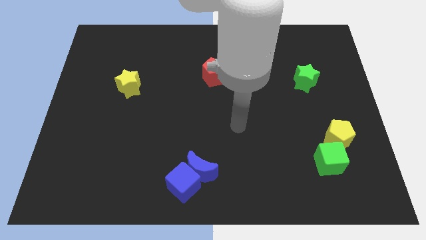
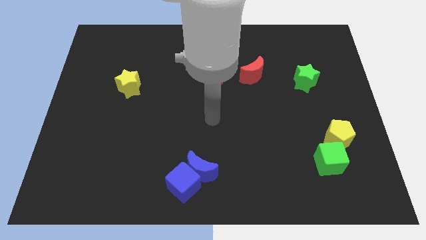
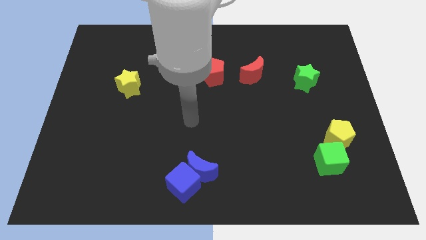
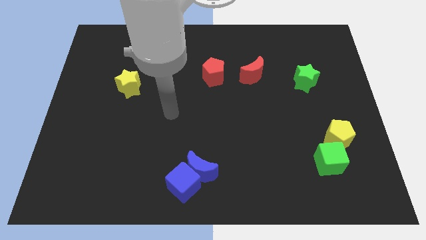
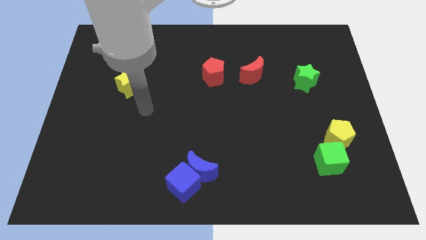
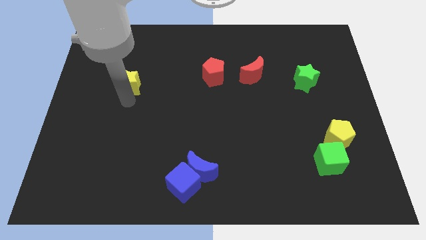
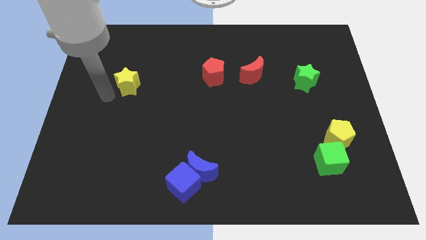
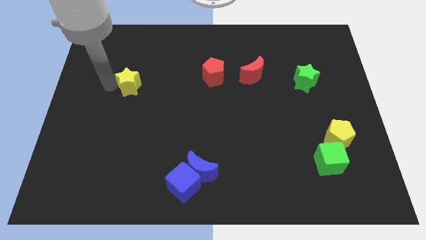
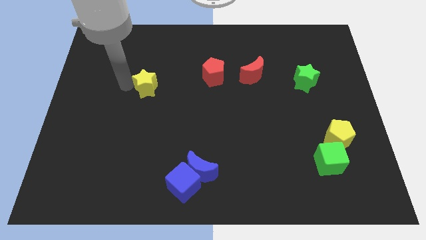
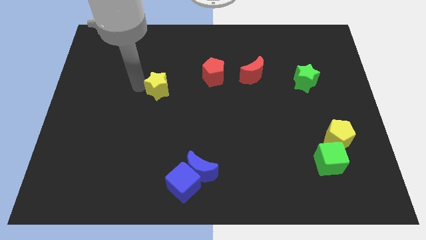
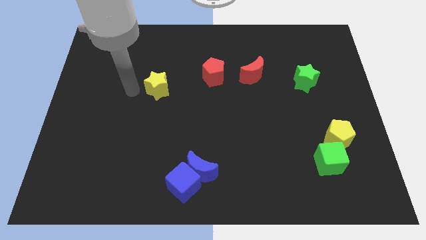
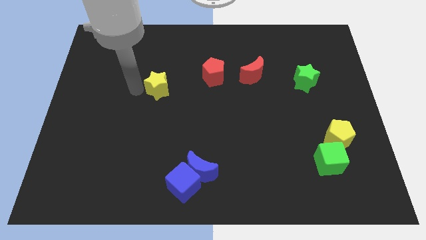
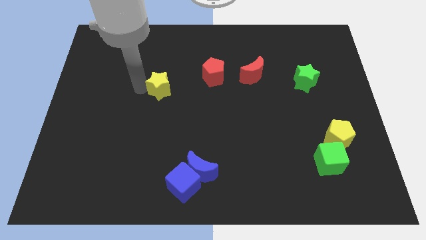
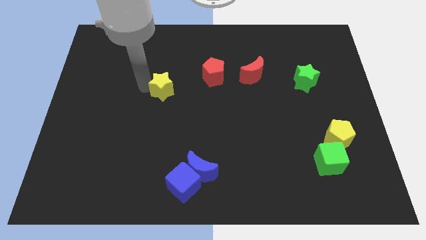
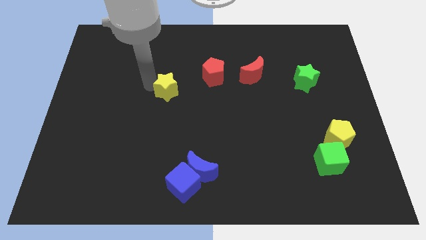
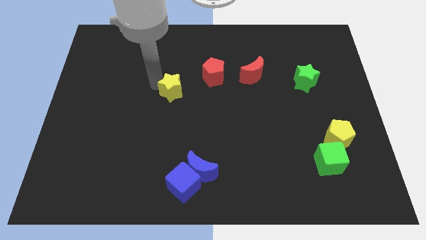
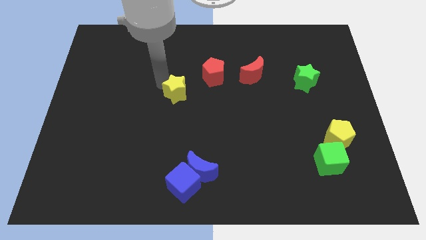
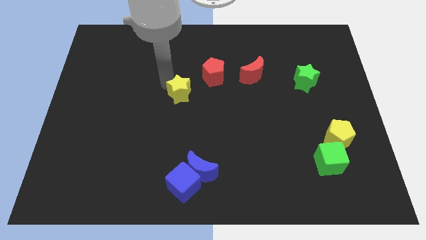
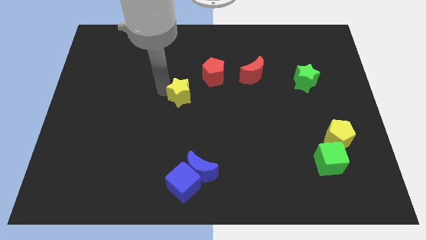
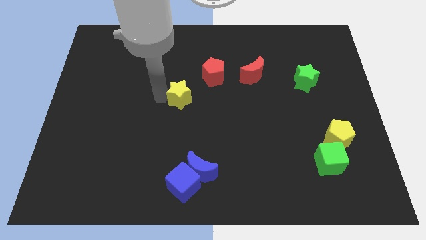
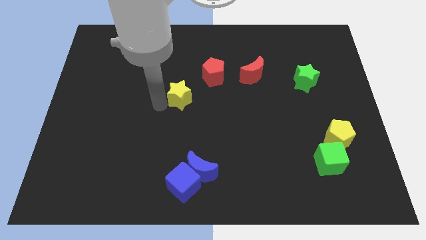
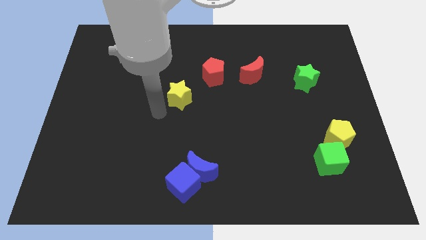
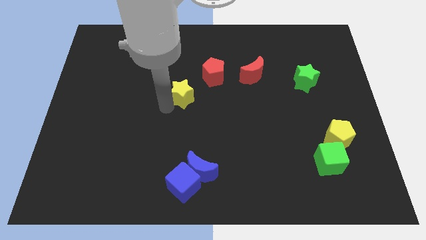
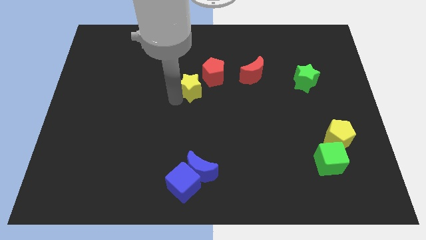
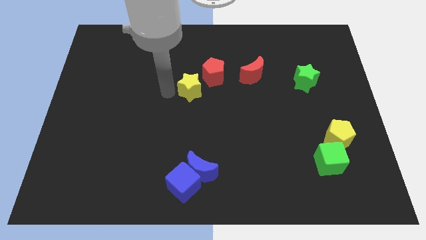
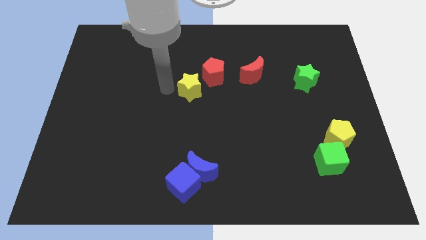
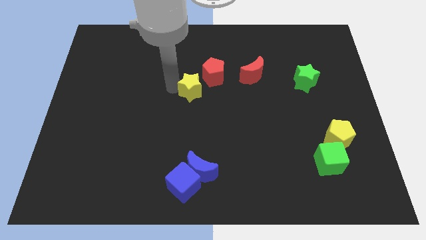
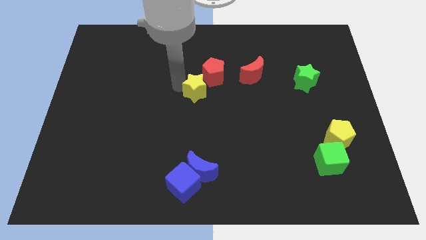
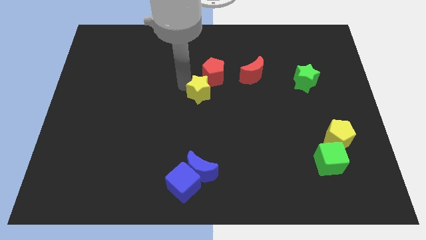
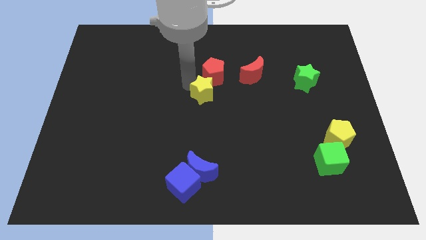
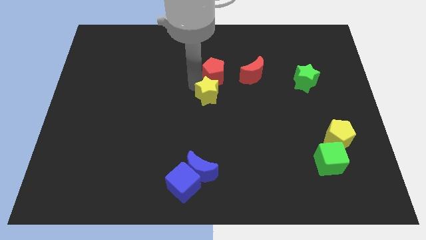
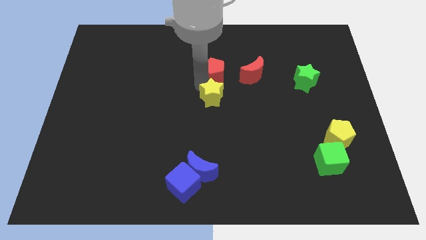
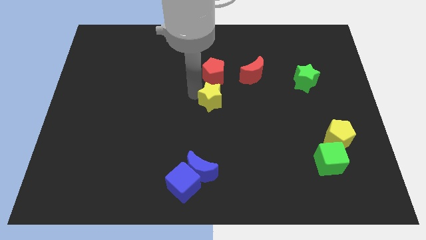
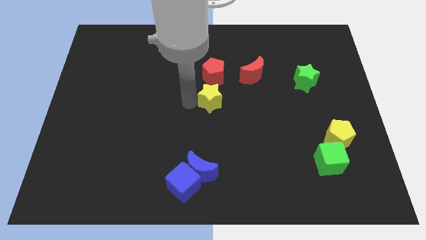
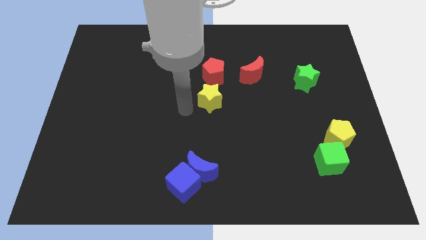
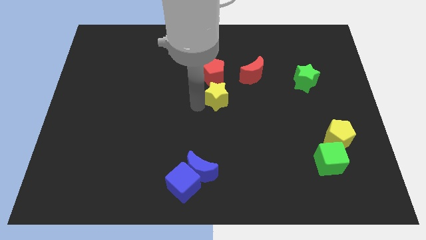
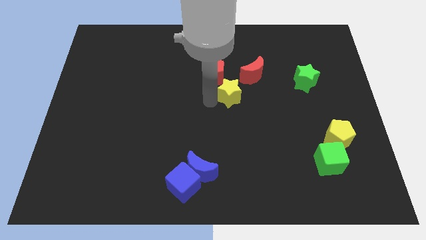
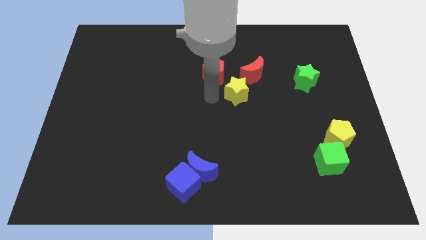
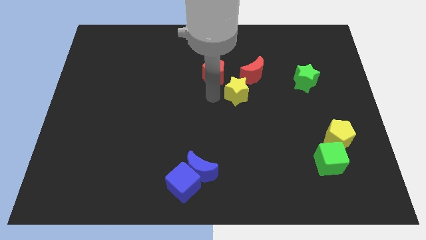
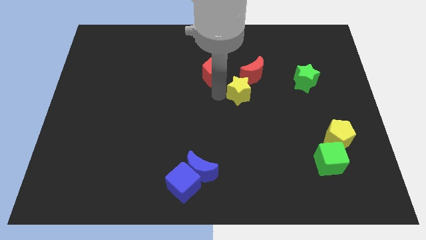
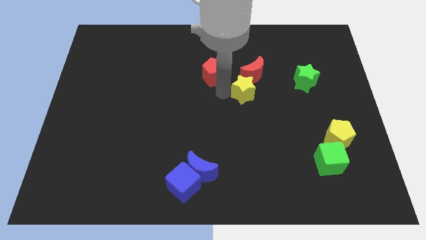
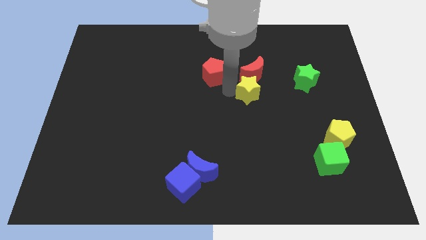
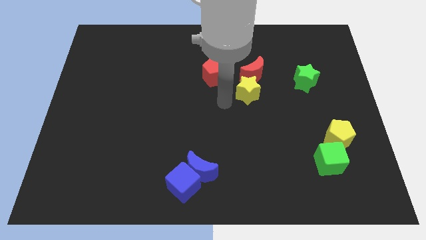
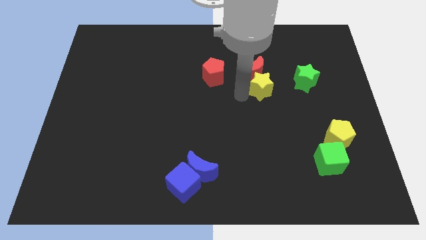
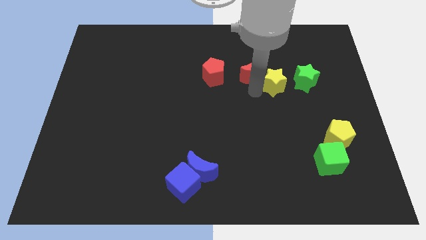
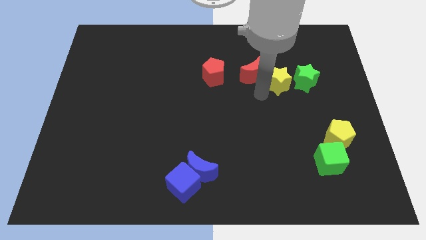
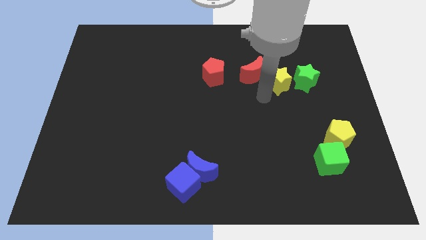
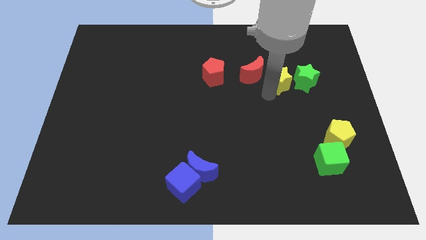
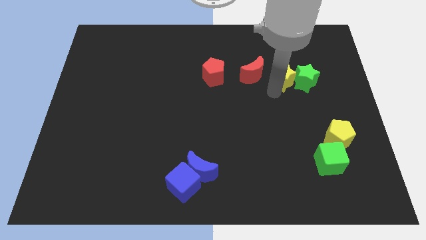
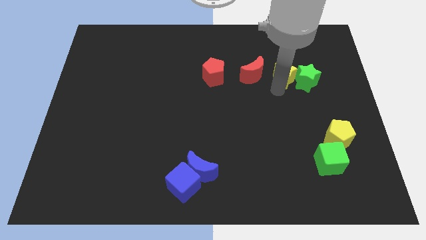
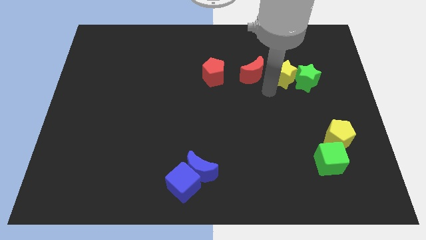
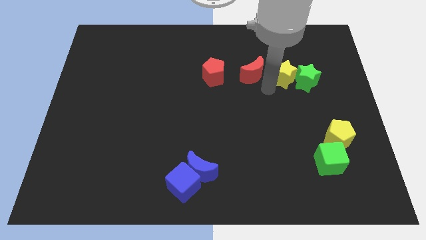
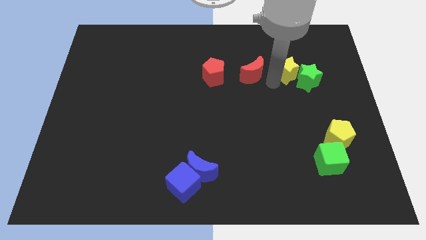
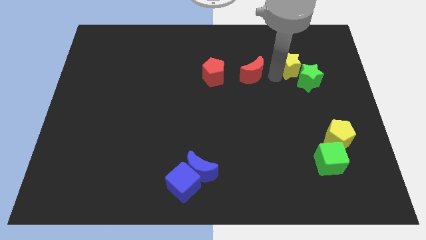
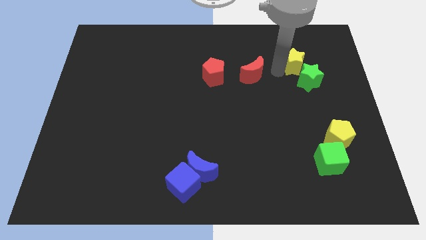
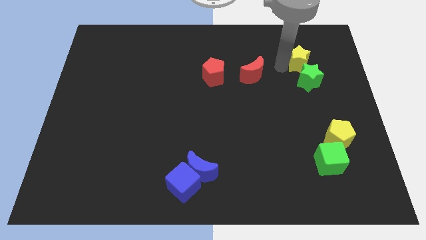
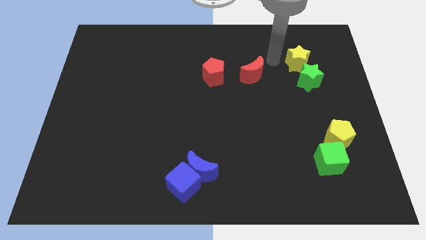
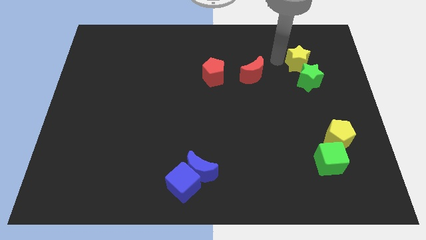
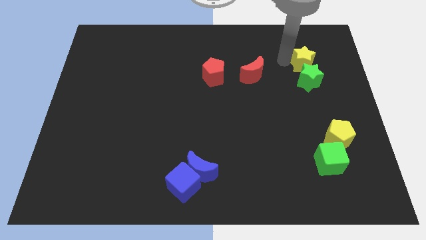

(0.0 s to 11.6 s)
slide the yellow star to the top right side of the green star

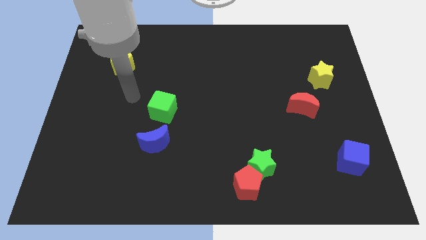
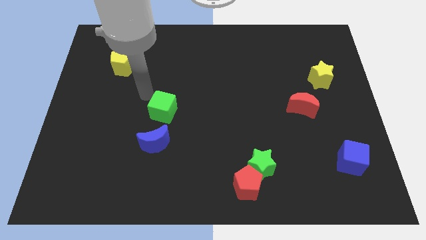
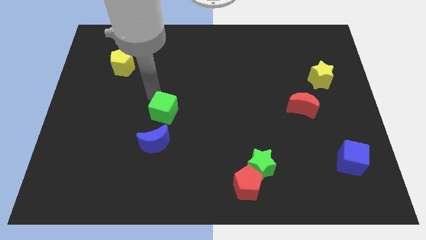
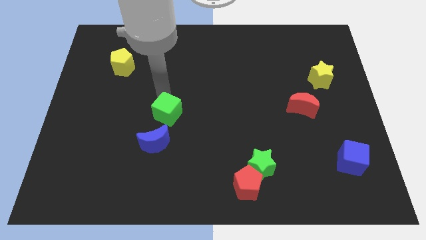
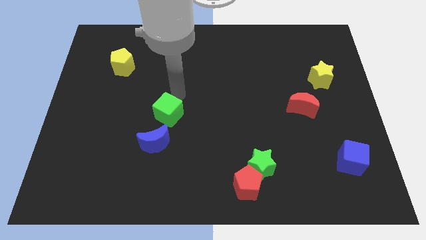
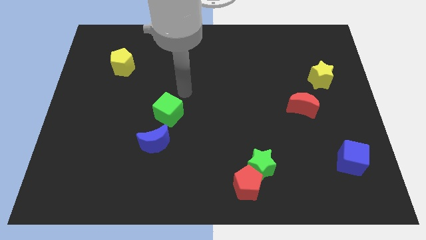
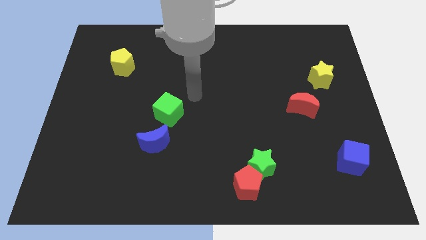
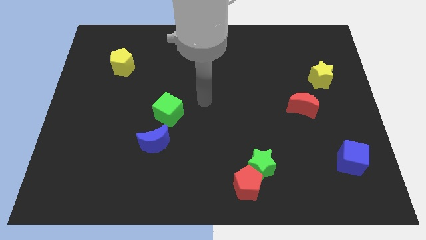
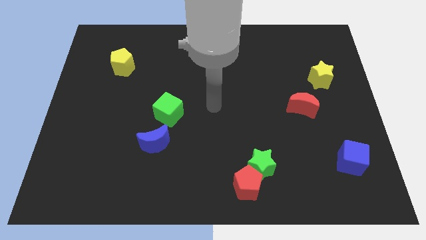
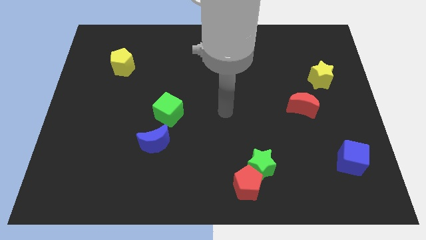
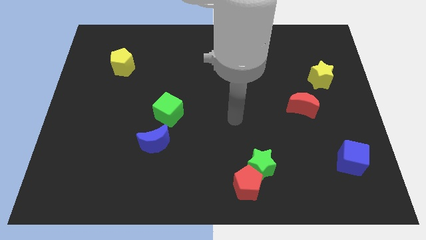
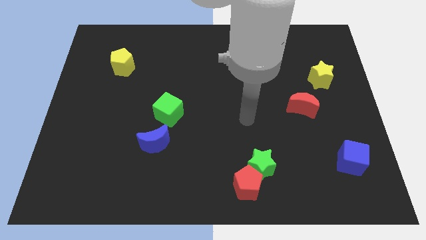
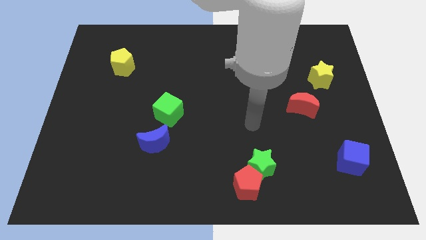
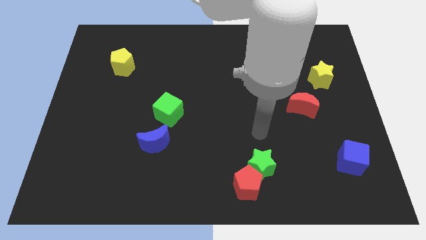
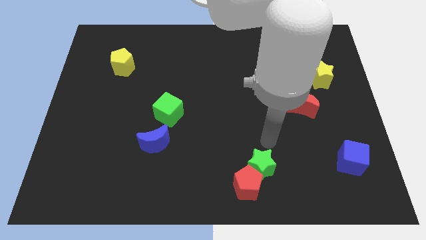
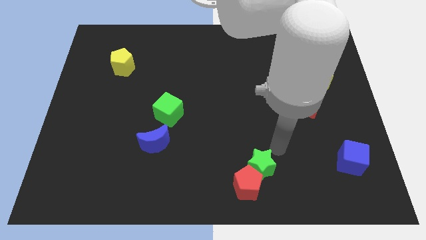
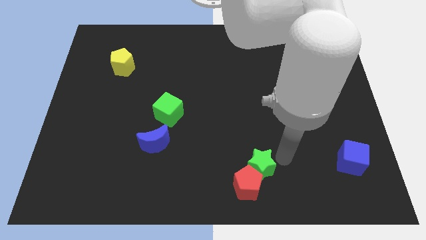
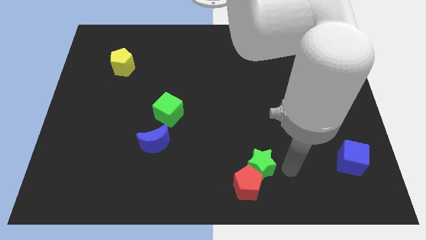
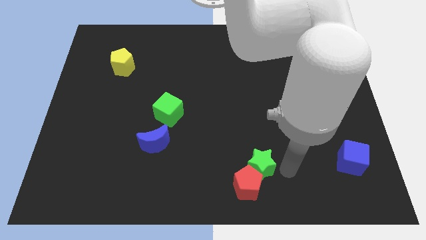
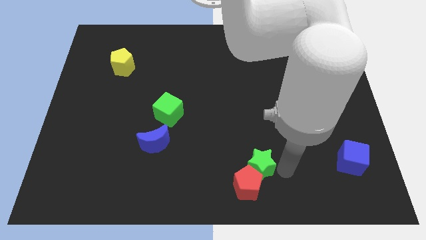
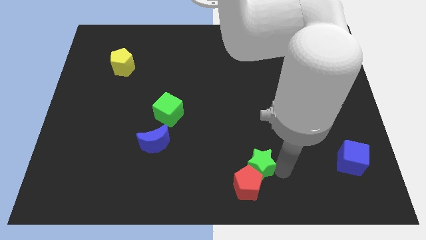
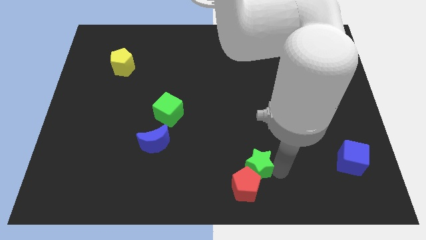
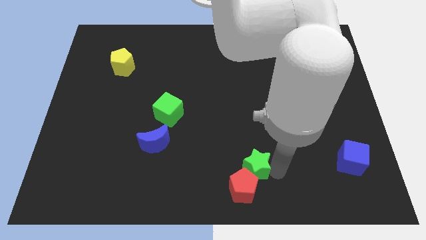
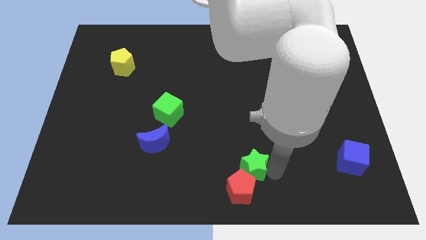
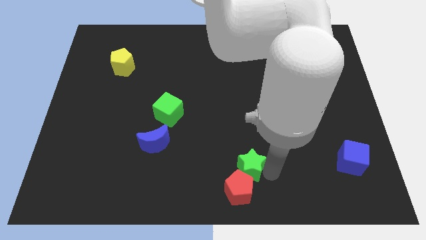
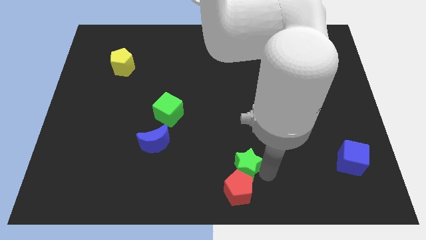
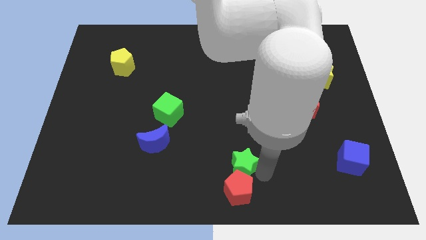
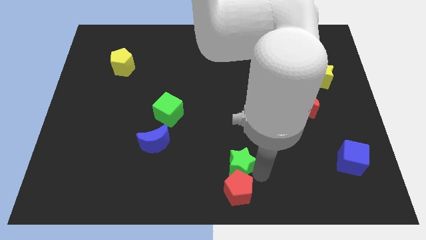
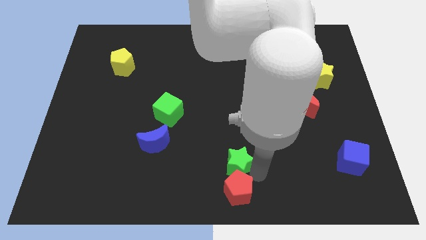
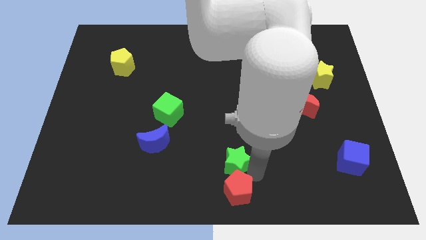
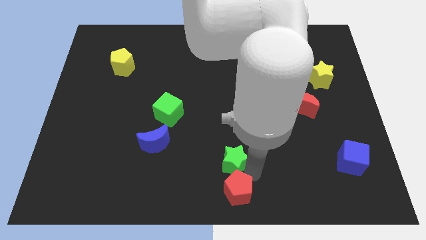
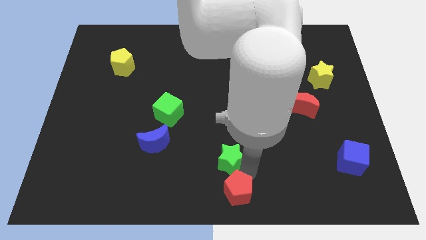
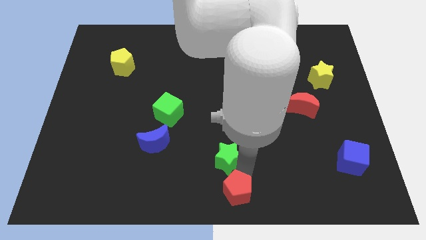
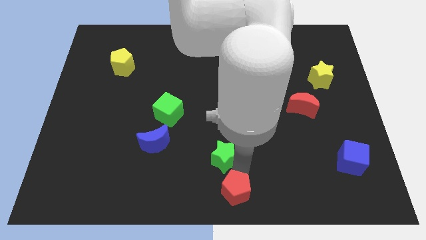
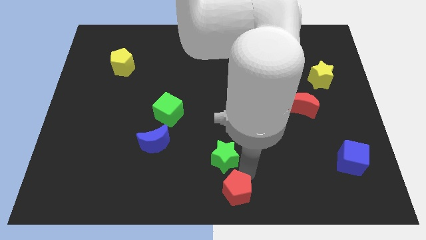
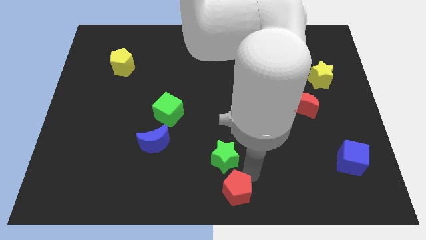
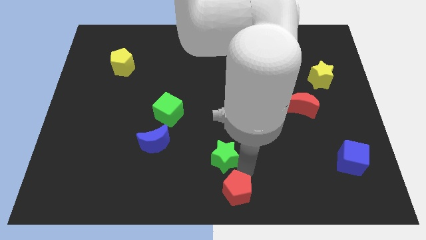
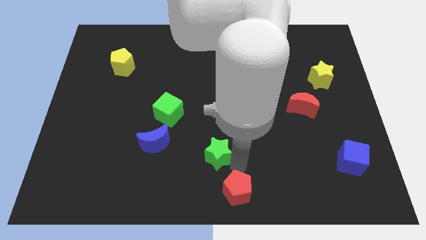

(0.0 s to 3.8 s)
push the green star to the right side of the blue moon
